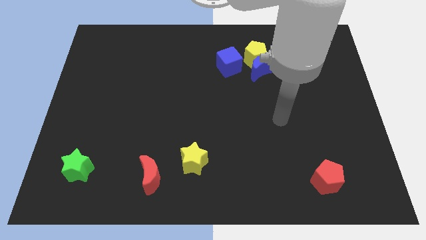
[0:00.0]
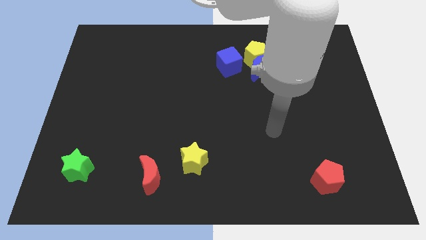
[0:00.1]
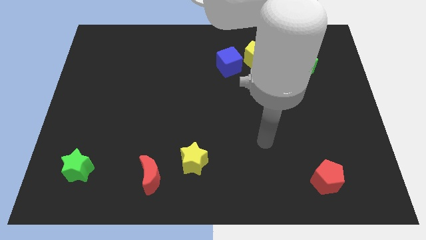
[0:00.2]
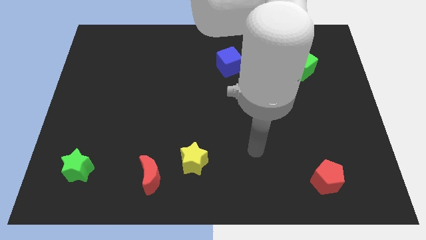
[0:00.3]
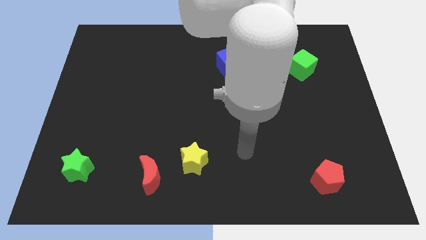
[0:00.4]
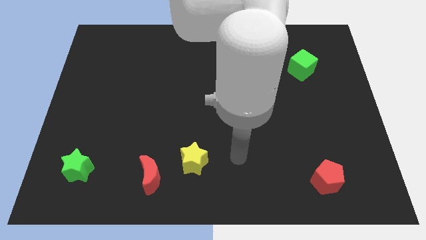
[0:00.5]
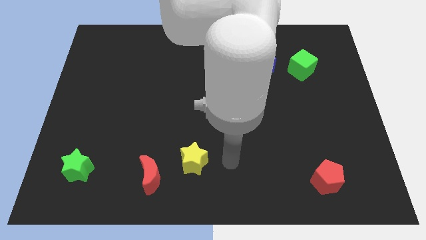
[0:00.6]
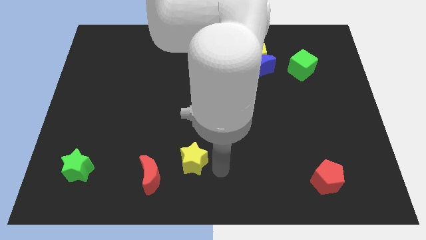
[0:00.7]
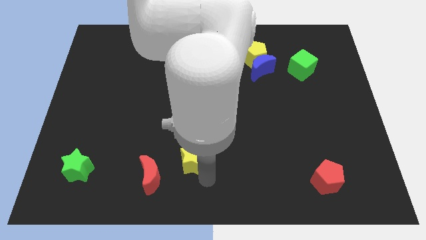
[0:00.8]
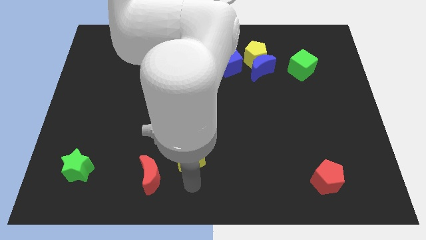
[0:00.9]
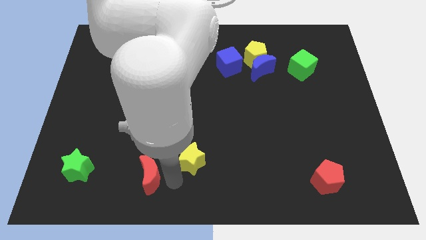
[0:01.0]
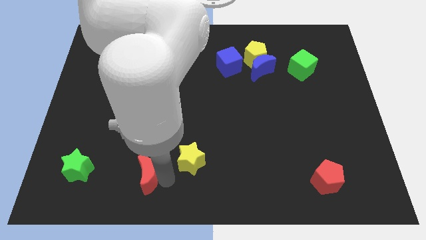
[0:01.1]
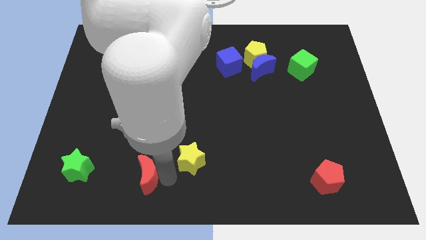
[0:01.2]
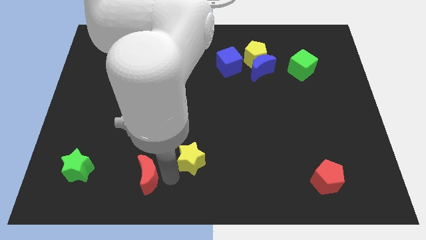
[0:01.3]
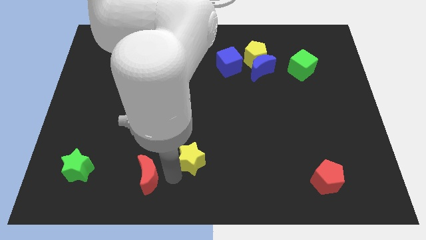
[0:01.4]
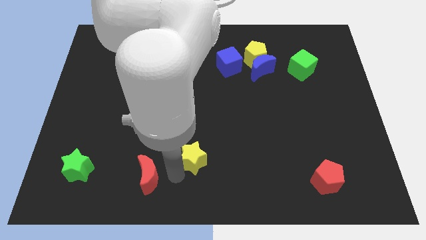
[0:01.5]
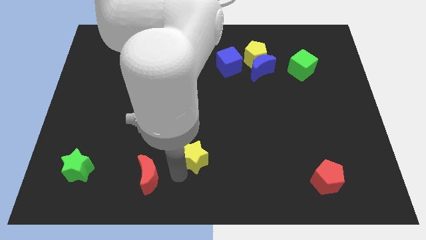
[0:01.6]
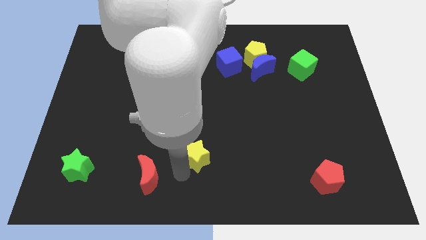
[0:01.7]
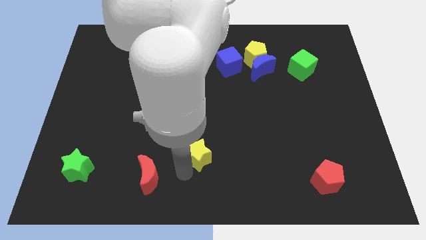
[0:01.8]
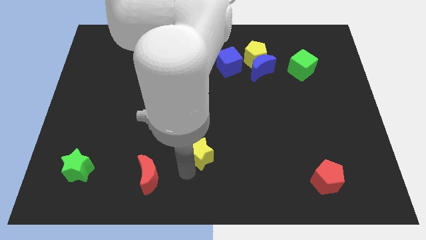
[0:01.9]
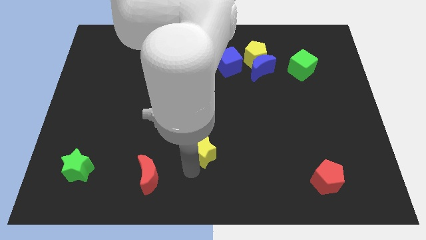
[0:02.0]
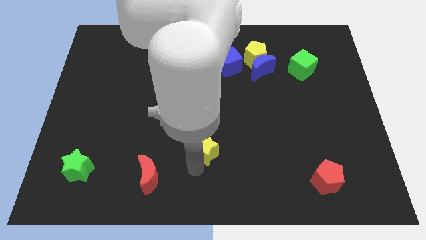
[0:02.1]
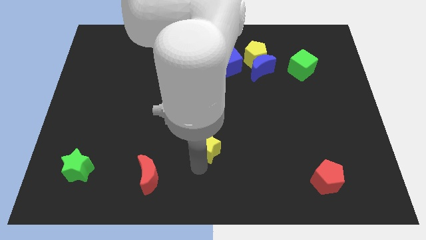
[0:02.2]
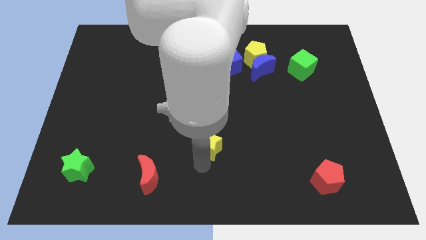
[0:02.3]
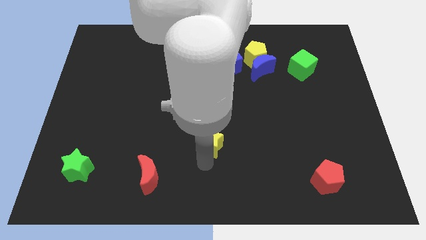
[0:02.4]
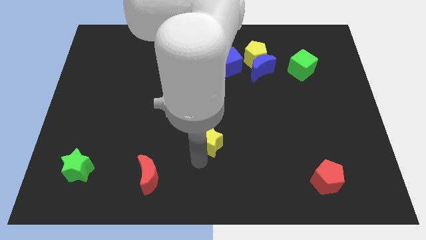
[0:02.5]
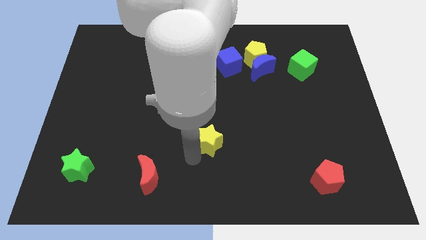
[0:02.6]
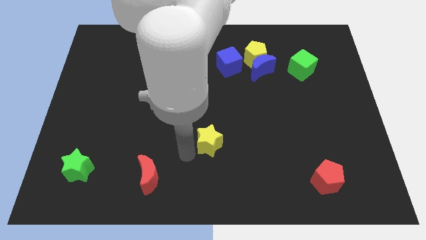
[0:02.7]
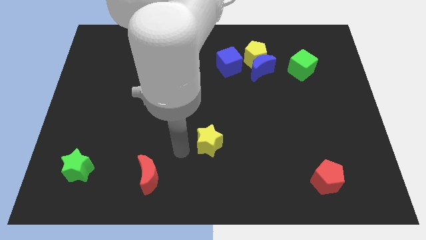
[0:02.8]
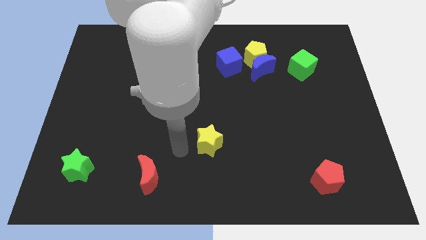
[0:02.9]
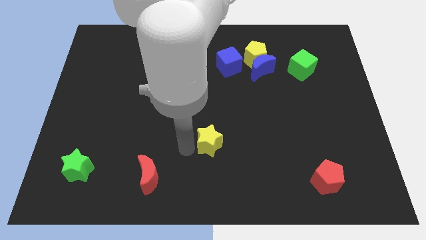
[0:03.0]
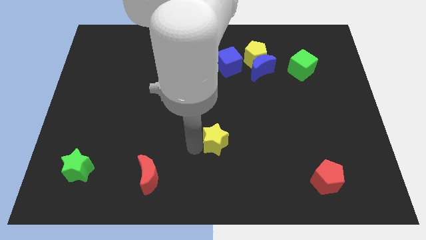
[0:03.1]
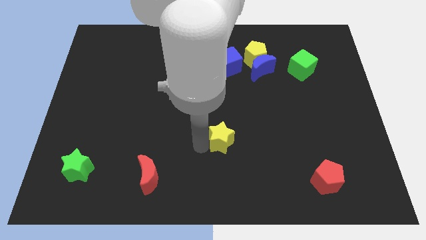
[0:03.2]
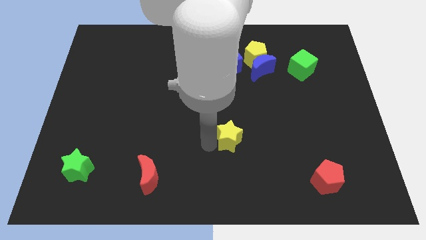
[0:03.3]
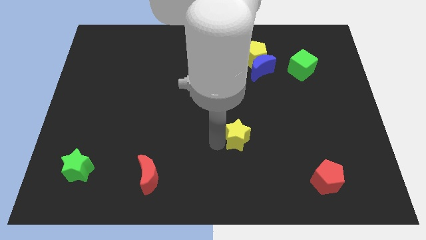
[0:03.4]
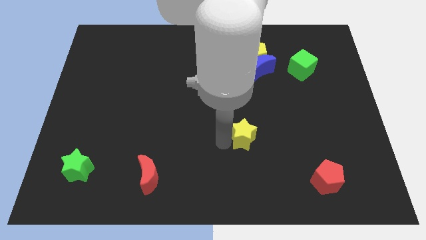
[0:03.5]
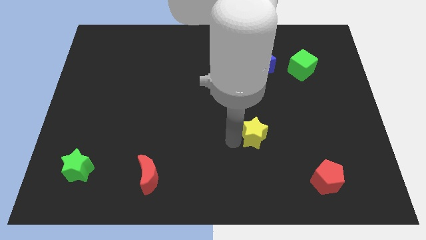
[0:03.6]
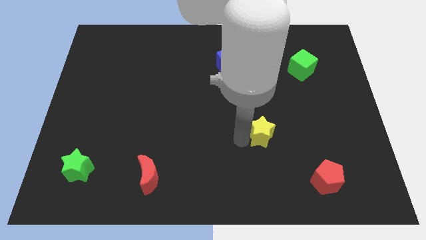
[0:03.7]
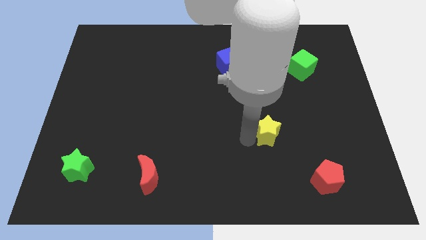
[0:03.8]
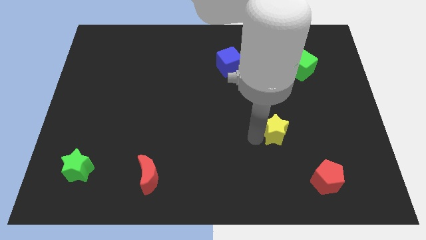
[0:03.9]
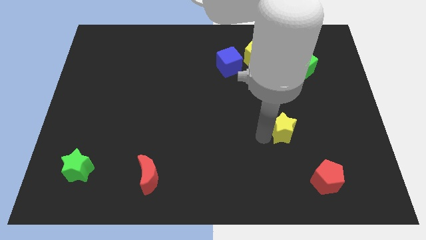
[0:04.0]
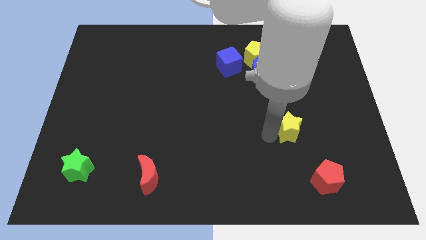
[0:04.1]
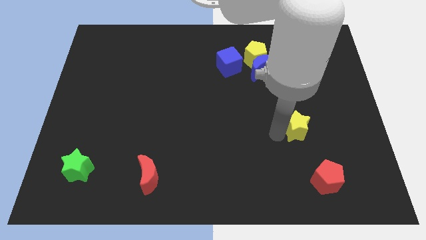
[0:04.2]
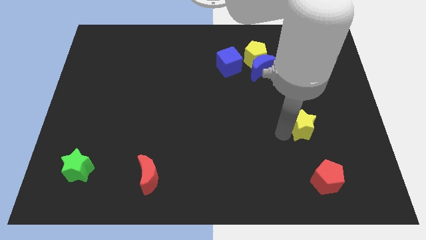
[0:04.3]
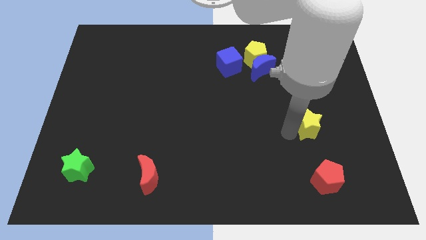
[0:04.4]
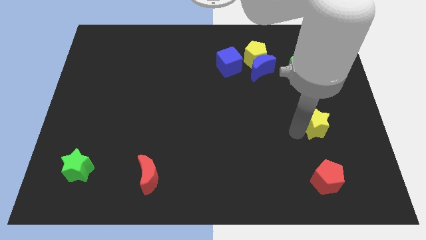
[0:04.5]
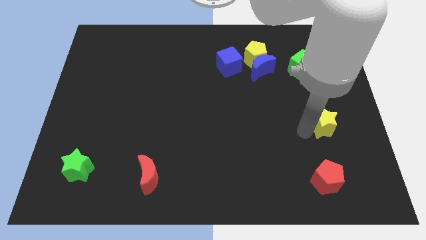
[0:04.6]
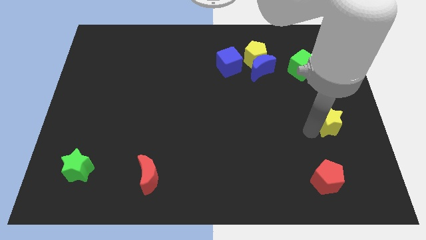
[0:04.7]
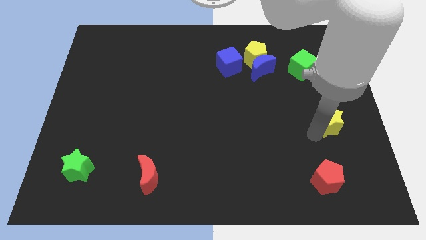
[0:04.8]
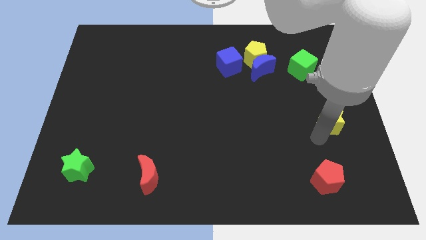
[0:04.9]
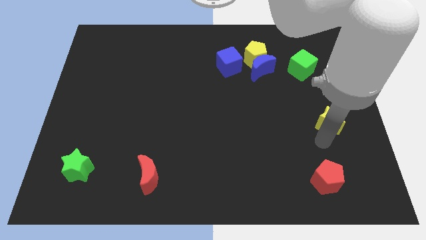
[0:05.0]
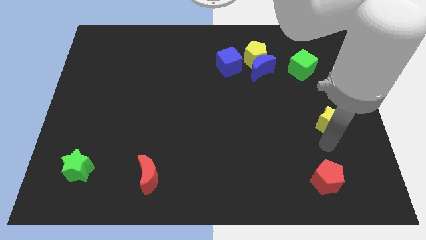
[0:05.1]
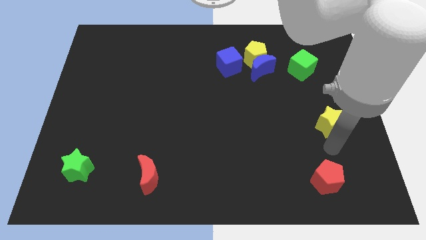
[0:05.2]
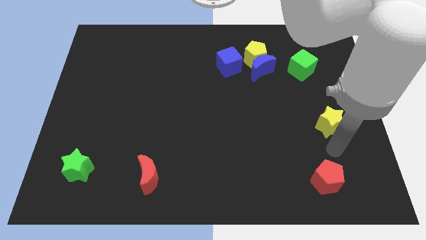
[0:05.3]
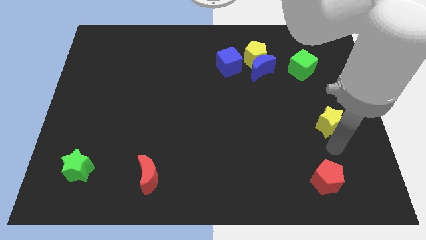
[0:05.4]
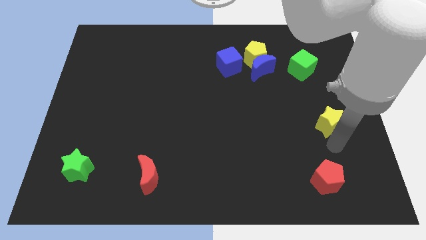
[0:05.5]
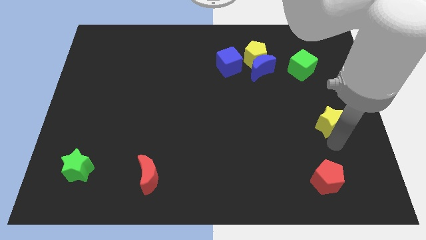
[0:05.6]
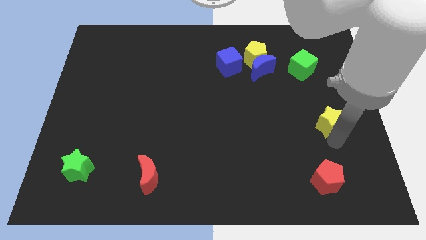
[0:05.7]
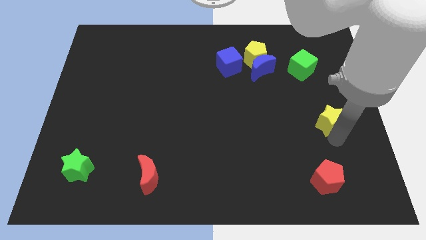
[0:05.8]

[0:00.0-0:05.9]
push the yellow star to the center right
